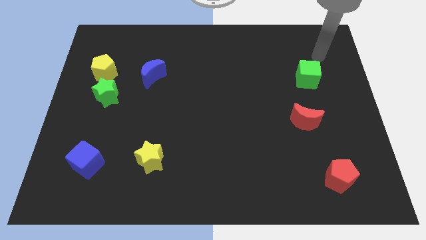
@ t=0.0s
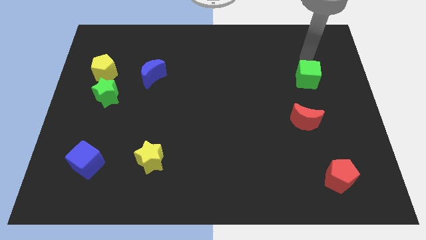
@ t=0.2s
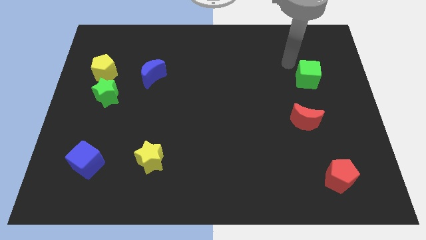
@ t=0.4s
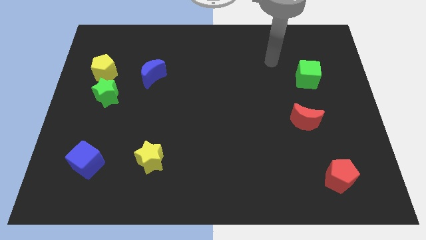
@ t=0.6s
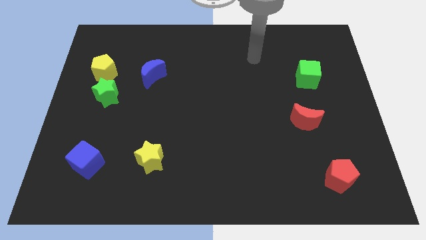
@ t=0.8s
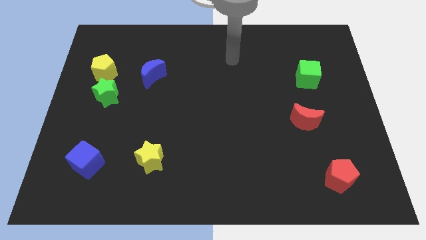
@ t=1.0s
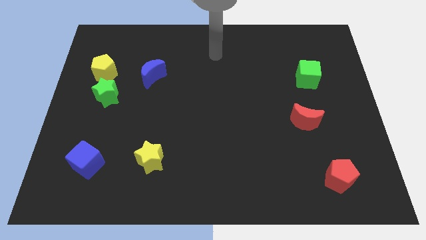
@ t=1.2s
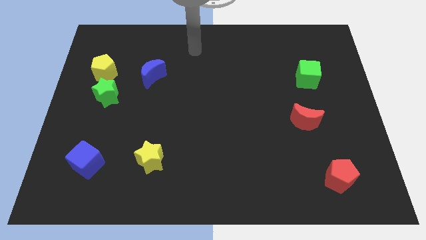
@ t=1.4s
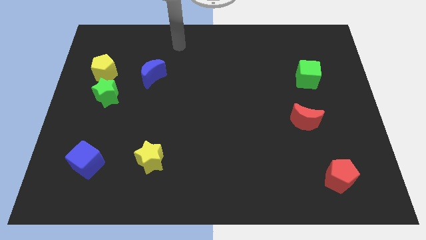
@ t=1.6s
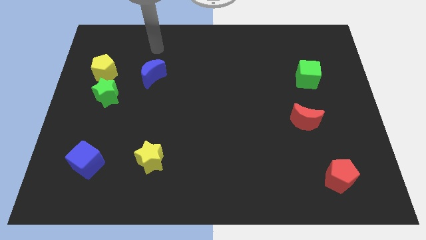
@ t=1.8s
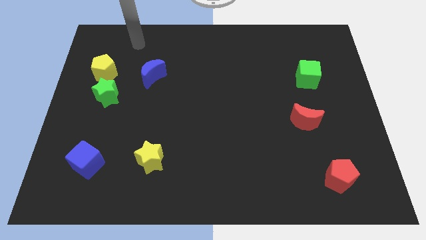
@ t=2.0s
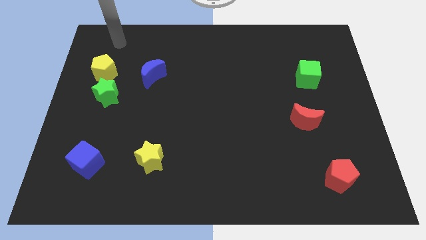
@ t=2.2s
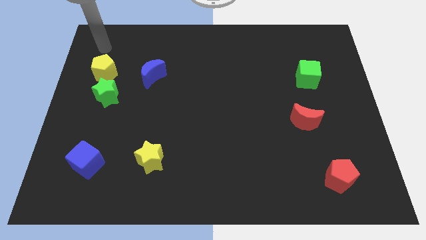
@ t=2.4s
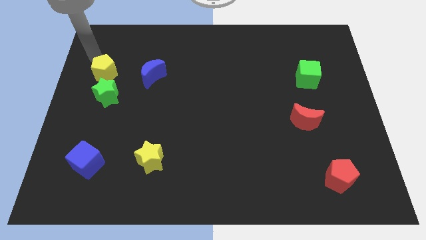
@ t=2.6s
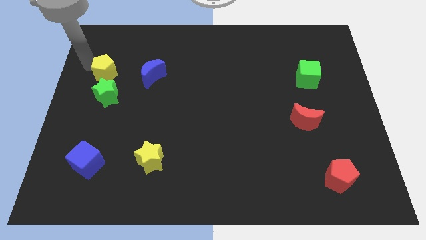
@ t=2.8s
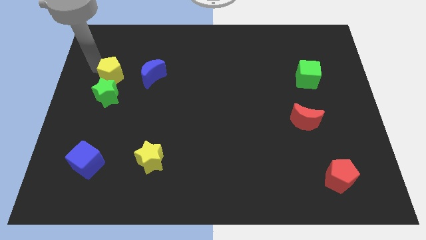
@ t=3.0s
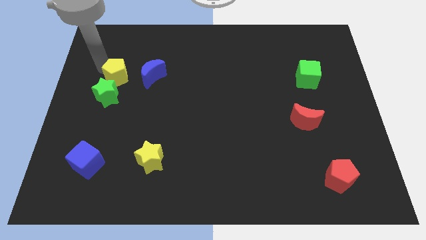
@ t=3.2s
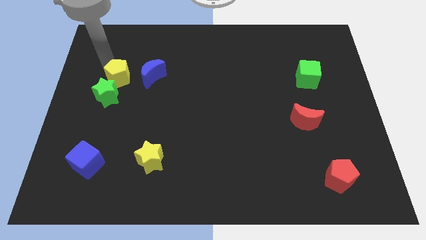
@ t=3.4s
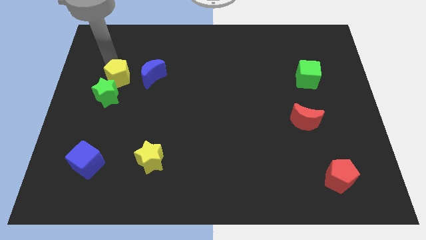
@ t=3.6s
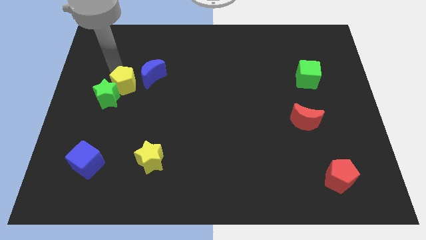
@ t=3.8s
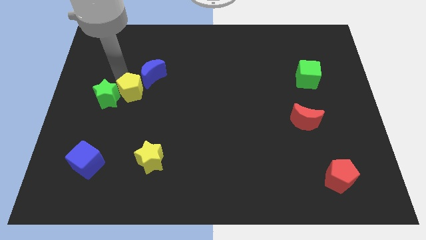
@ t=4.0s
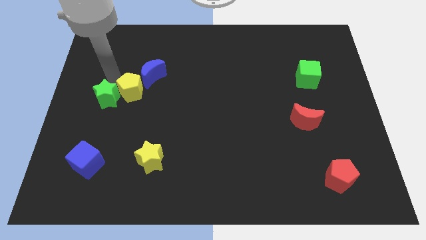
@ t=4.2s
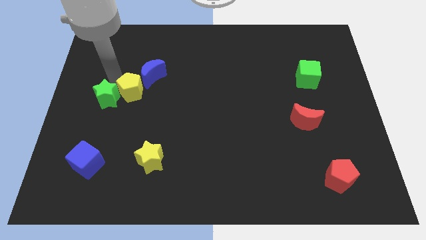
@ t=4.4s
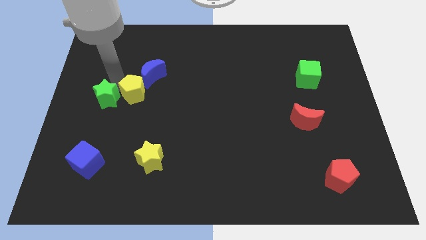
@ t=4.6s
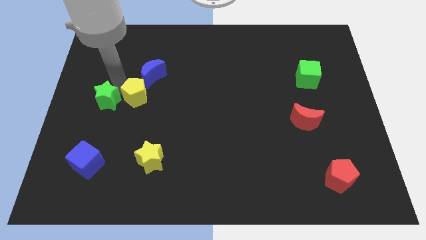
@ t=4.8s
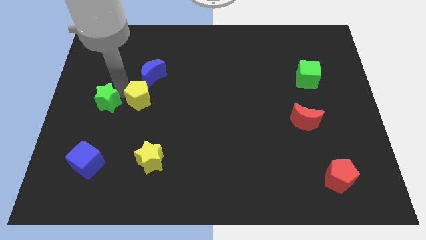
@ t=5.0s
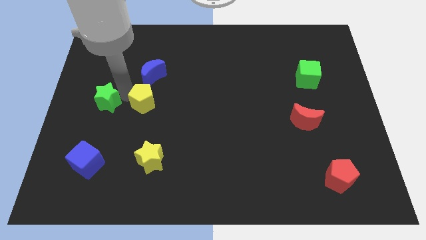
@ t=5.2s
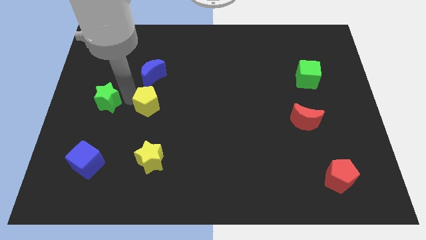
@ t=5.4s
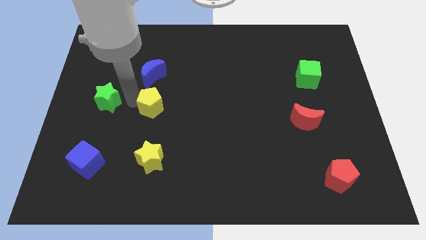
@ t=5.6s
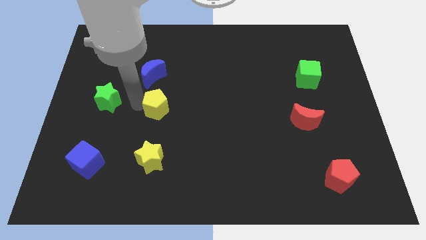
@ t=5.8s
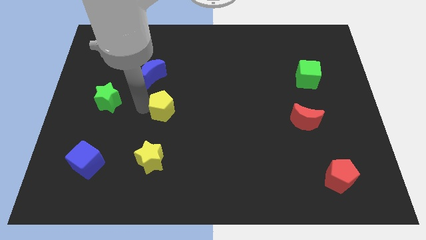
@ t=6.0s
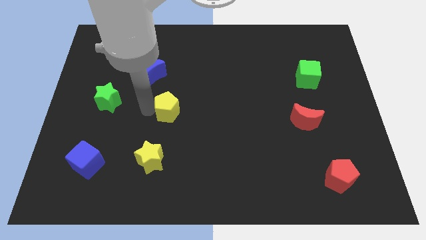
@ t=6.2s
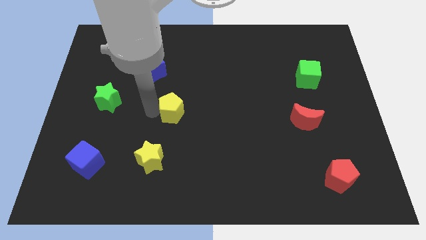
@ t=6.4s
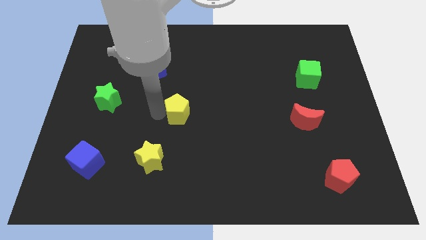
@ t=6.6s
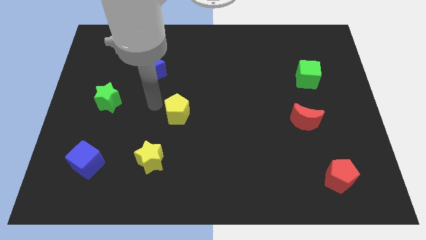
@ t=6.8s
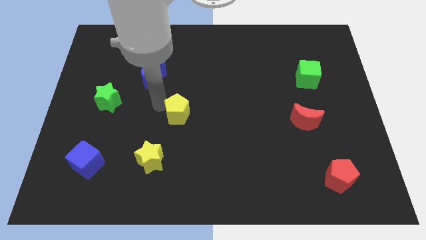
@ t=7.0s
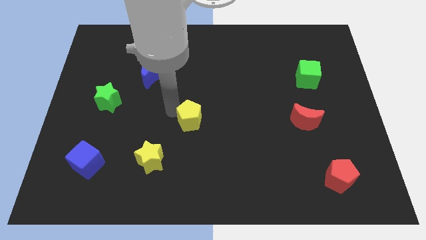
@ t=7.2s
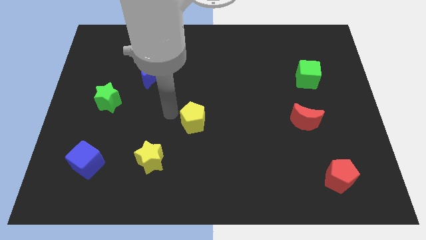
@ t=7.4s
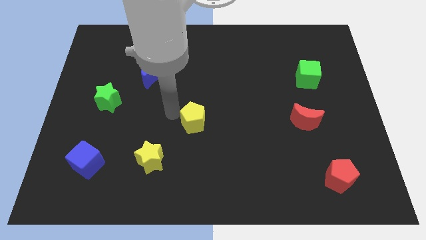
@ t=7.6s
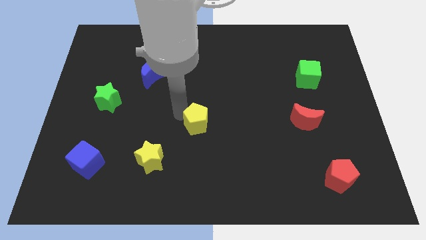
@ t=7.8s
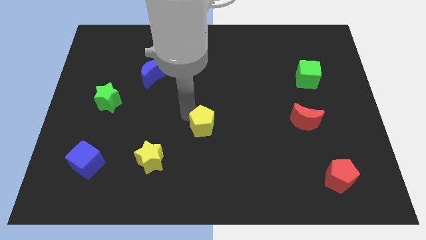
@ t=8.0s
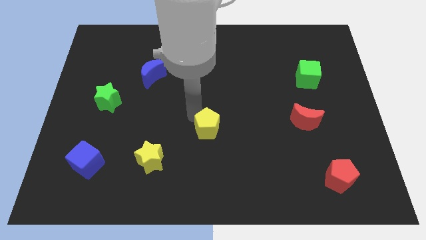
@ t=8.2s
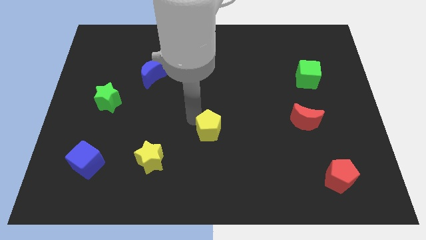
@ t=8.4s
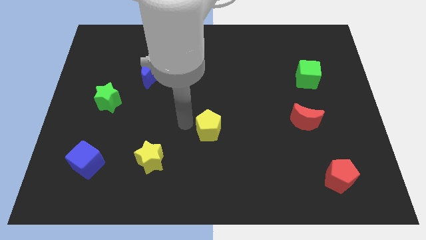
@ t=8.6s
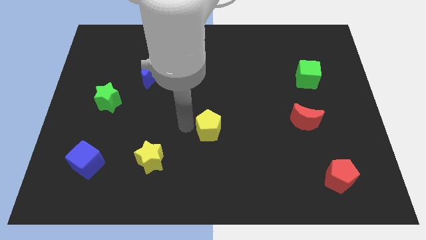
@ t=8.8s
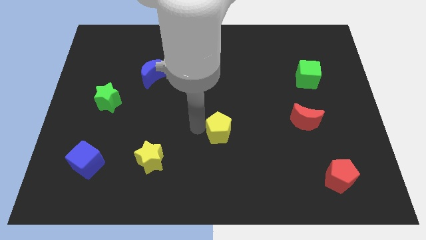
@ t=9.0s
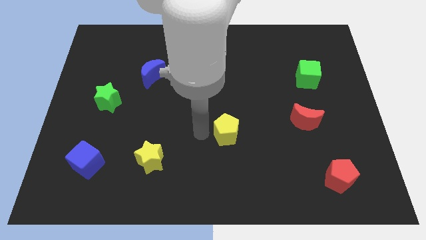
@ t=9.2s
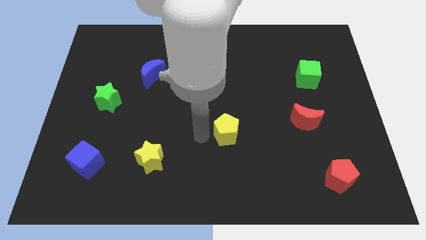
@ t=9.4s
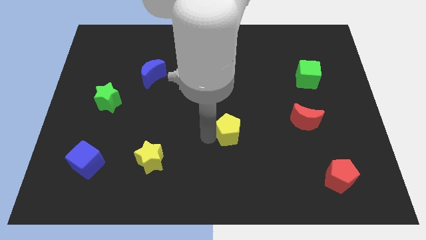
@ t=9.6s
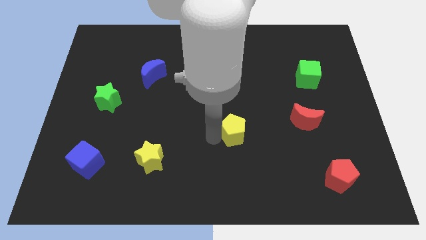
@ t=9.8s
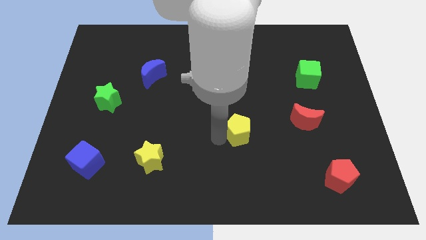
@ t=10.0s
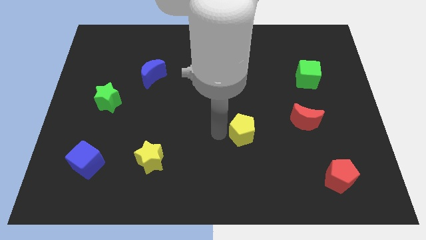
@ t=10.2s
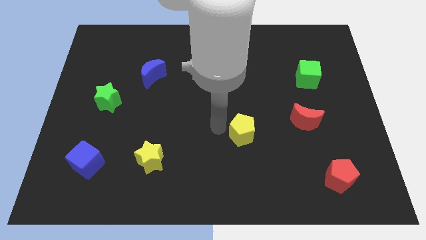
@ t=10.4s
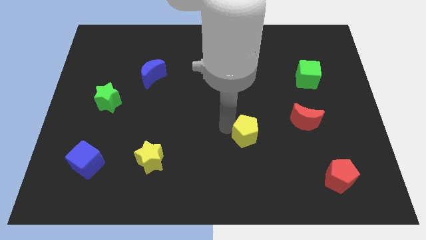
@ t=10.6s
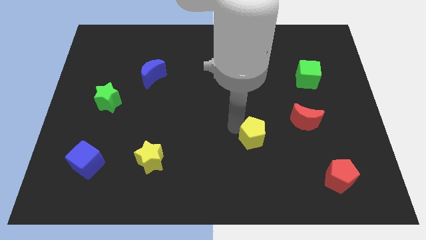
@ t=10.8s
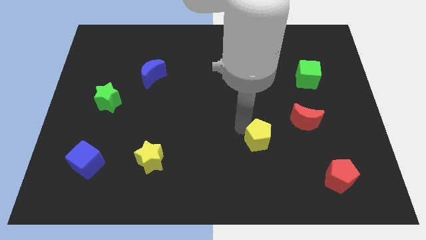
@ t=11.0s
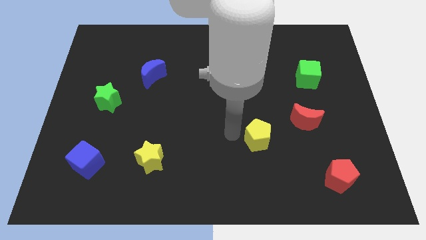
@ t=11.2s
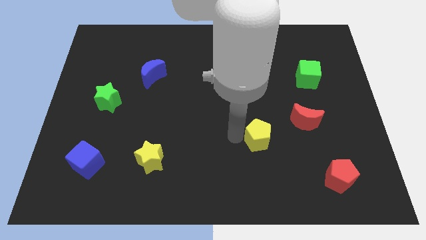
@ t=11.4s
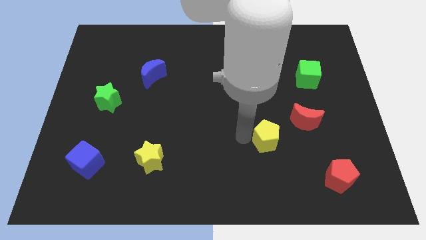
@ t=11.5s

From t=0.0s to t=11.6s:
put the yellow pentagon diagonally down and to the left of the red moon

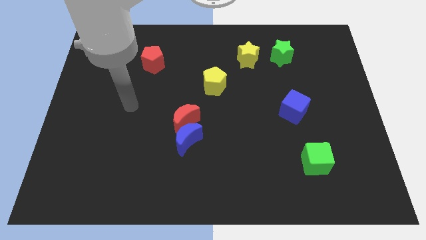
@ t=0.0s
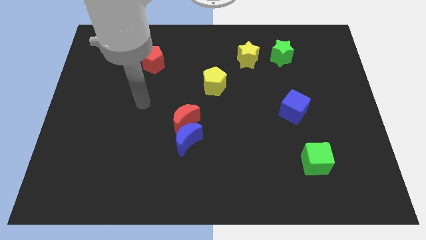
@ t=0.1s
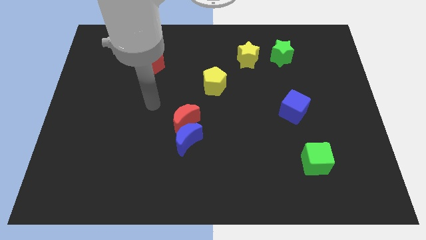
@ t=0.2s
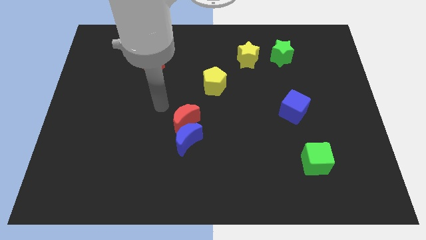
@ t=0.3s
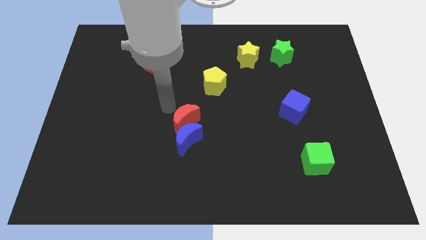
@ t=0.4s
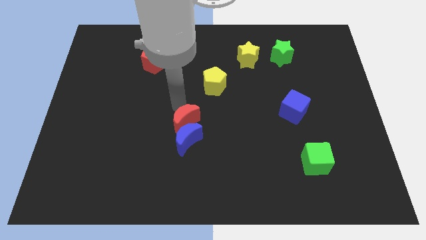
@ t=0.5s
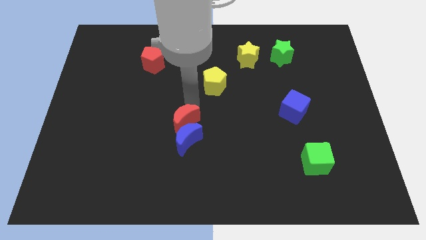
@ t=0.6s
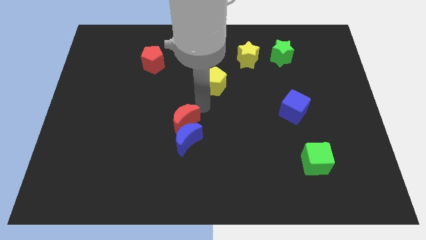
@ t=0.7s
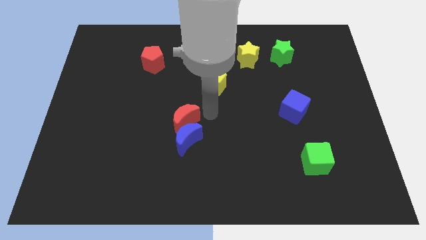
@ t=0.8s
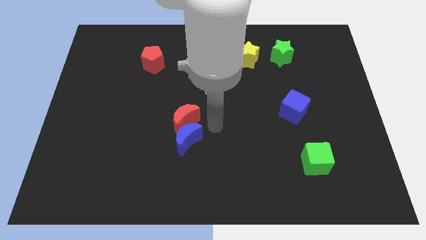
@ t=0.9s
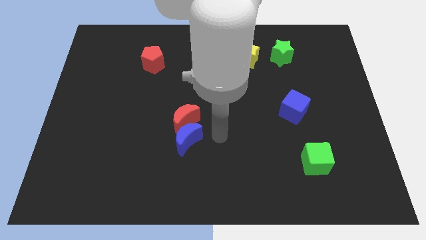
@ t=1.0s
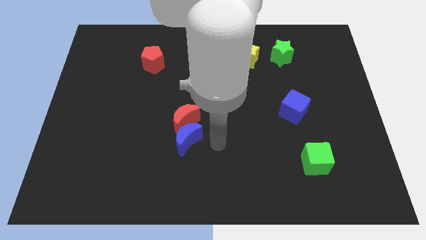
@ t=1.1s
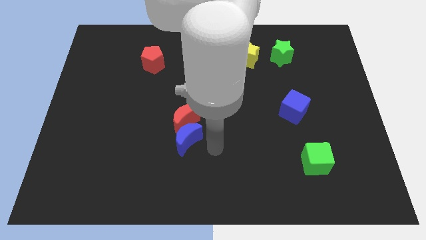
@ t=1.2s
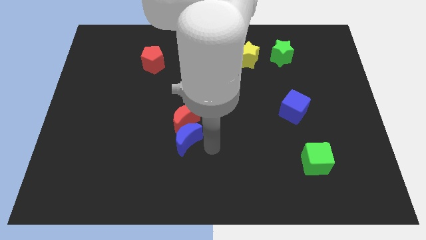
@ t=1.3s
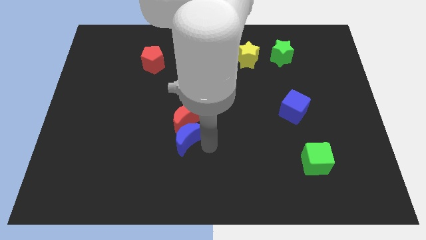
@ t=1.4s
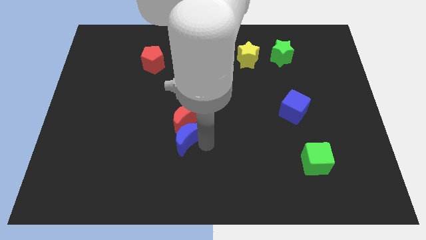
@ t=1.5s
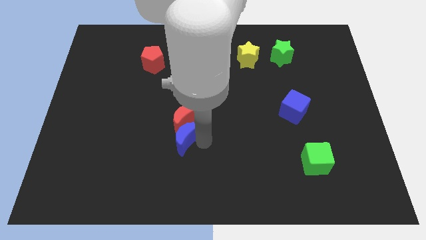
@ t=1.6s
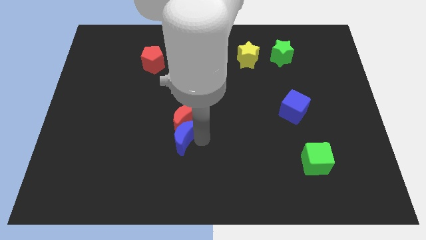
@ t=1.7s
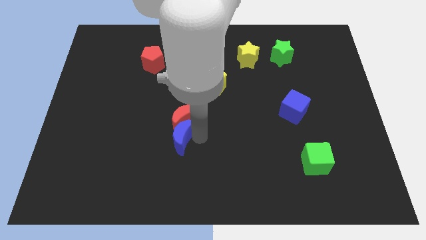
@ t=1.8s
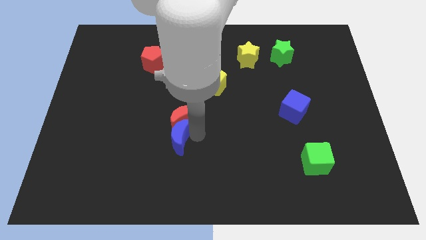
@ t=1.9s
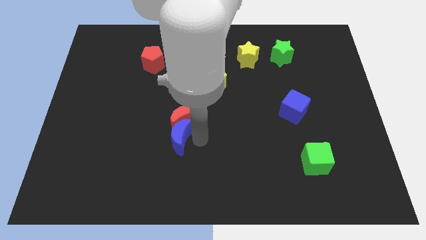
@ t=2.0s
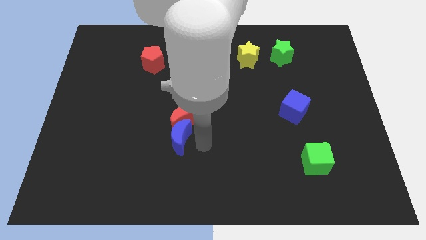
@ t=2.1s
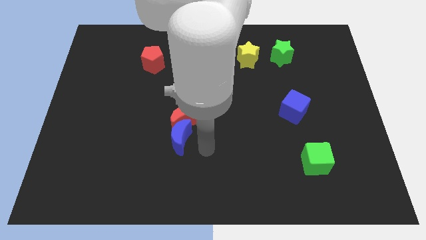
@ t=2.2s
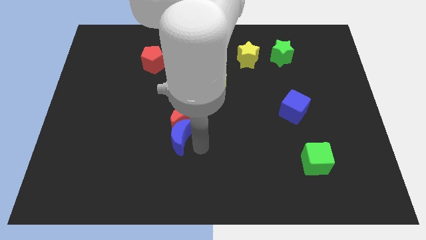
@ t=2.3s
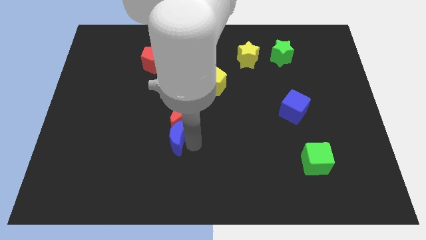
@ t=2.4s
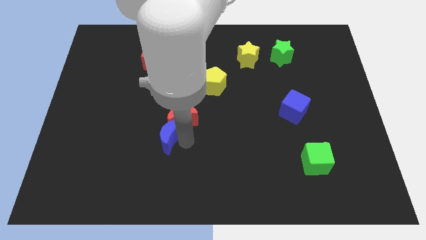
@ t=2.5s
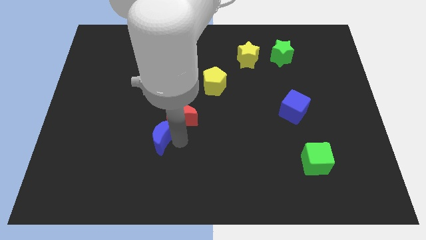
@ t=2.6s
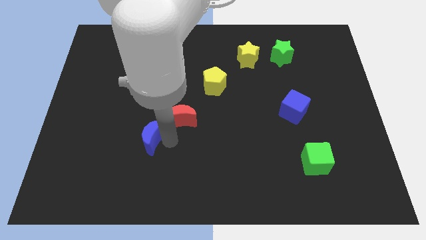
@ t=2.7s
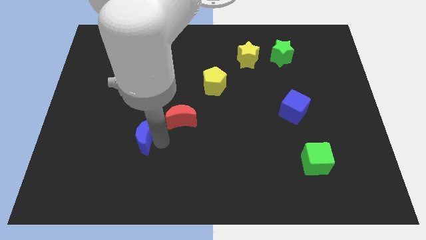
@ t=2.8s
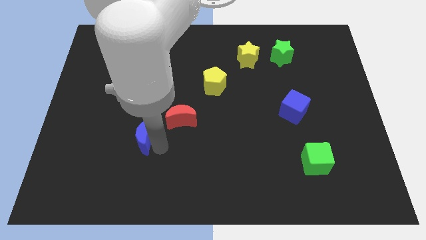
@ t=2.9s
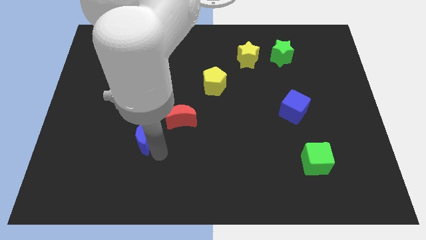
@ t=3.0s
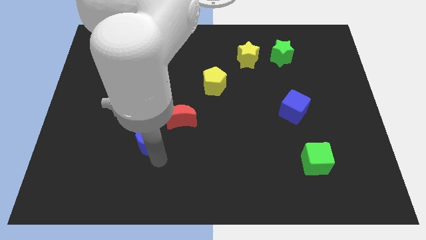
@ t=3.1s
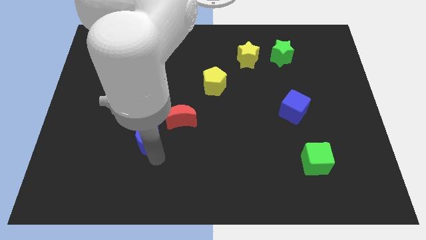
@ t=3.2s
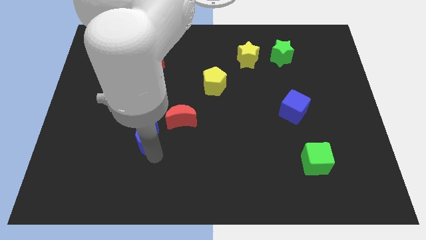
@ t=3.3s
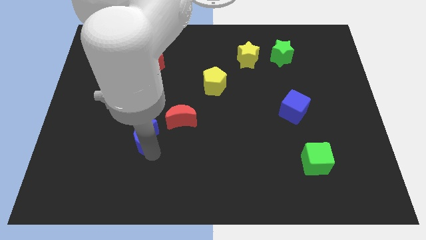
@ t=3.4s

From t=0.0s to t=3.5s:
put the blue moon left of the red moon
